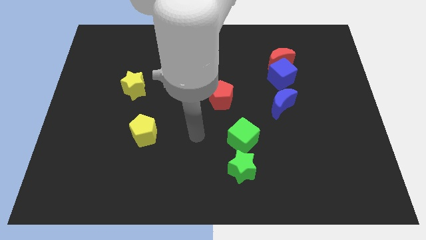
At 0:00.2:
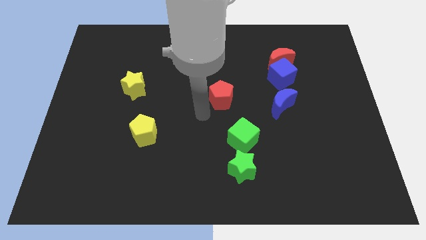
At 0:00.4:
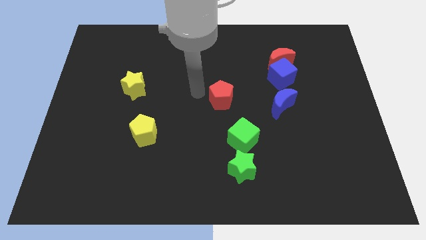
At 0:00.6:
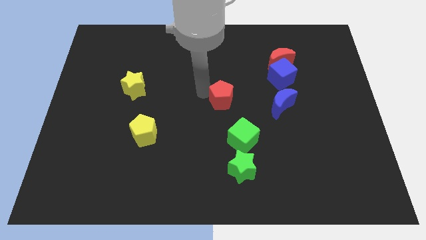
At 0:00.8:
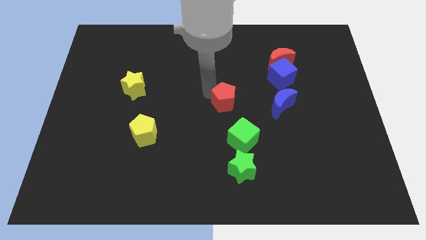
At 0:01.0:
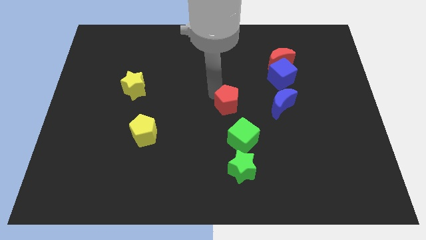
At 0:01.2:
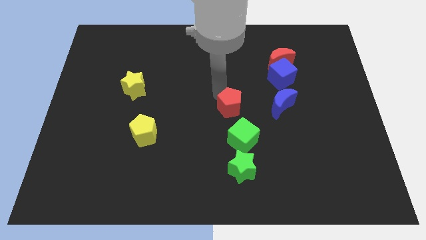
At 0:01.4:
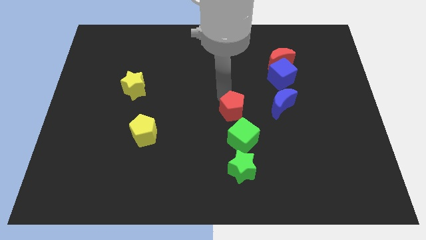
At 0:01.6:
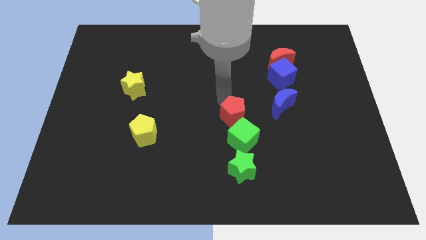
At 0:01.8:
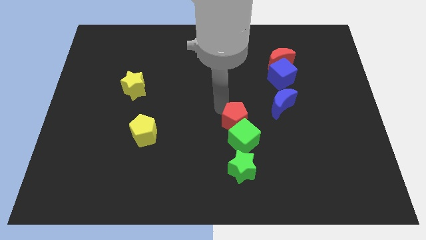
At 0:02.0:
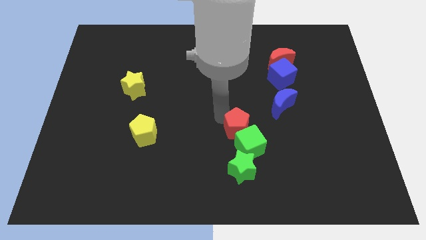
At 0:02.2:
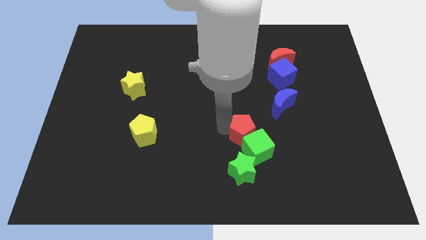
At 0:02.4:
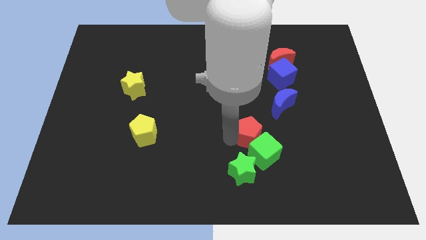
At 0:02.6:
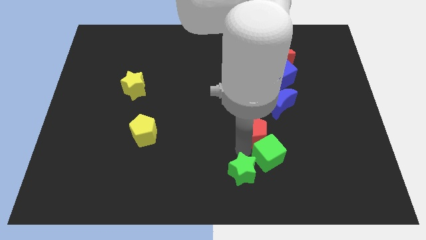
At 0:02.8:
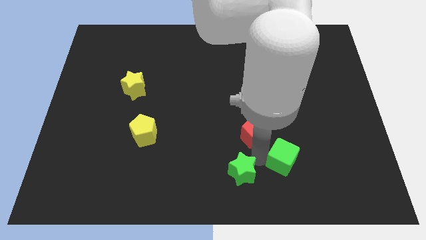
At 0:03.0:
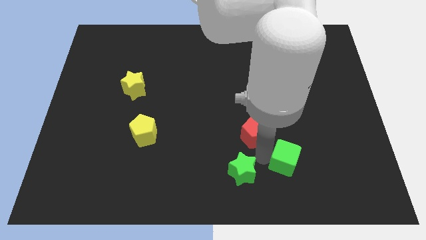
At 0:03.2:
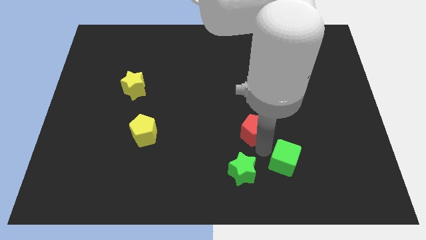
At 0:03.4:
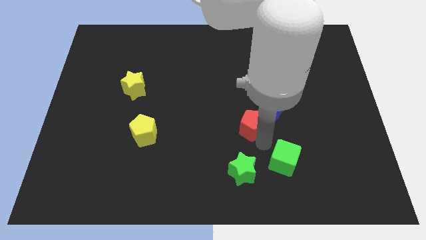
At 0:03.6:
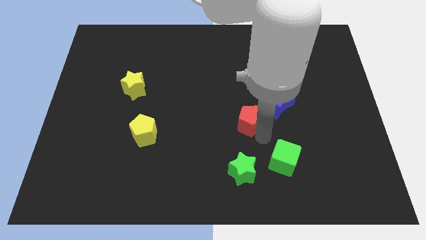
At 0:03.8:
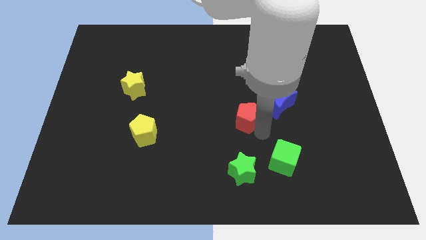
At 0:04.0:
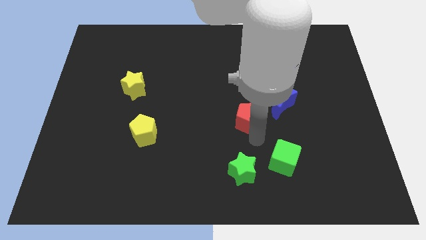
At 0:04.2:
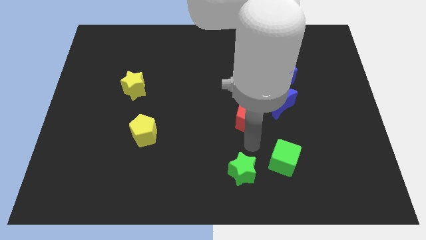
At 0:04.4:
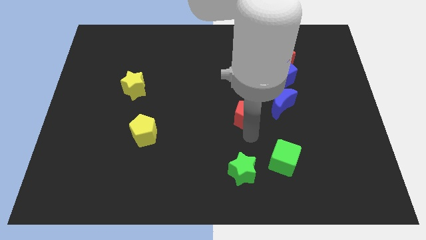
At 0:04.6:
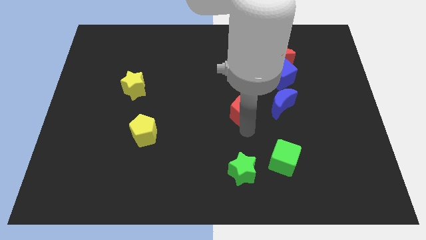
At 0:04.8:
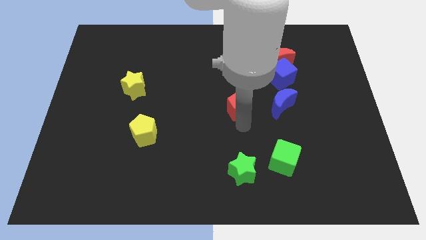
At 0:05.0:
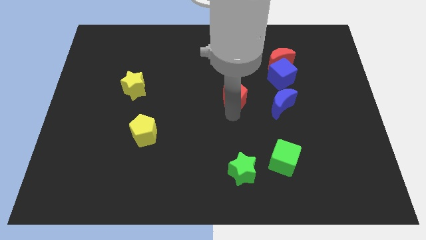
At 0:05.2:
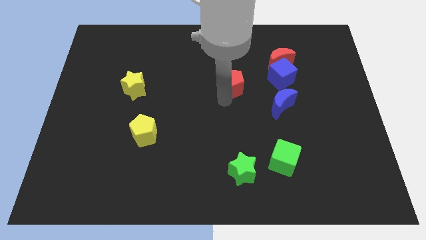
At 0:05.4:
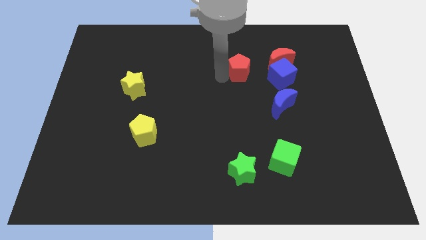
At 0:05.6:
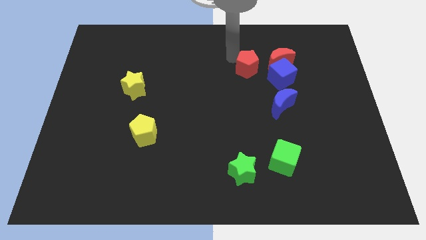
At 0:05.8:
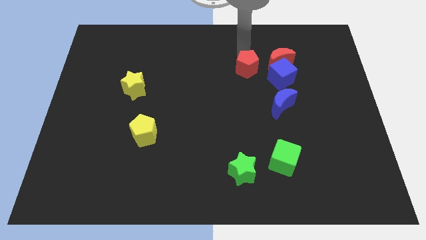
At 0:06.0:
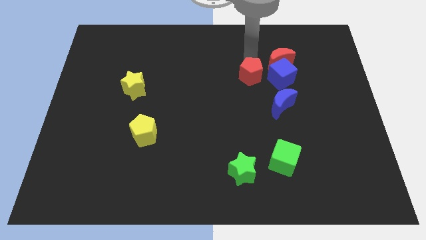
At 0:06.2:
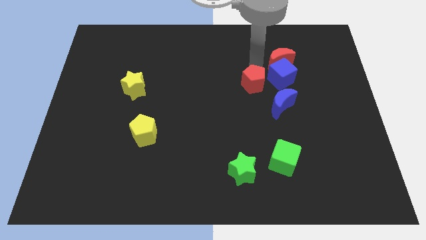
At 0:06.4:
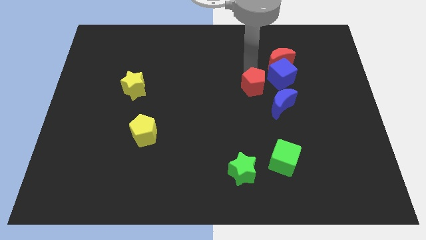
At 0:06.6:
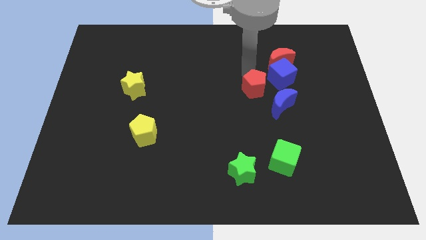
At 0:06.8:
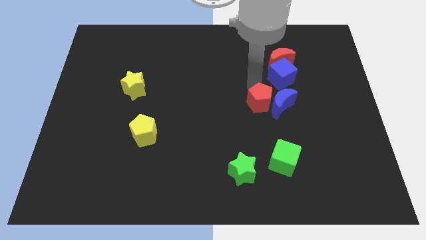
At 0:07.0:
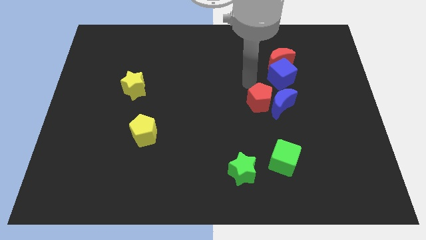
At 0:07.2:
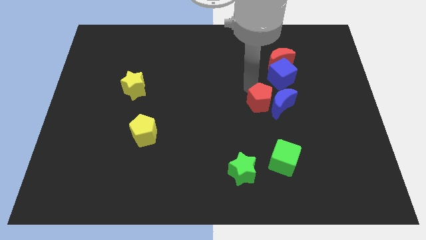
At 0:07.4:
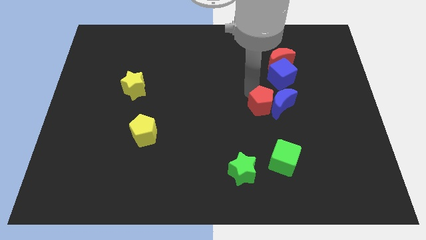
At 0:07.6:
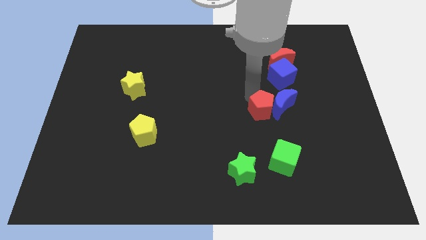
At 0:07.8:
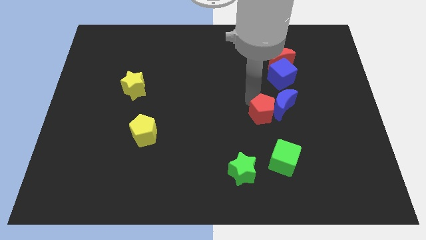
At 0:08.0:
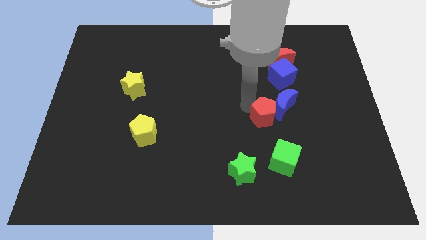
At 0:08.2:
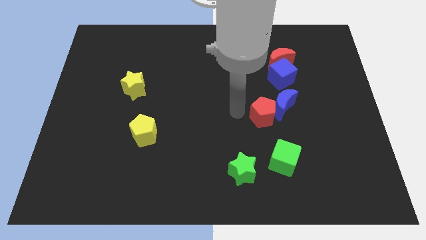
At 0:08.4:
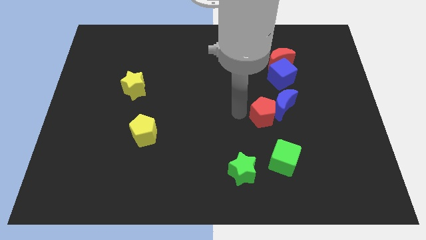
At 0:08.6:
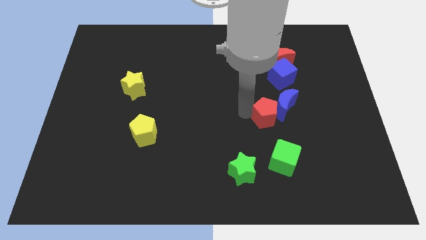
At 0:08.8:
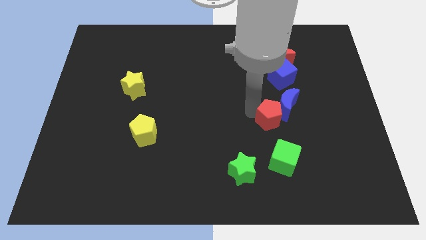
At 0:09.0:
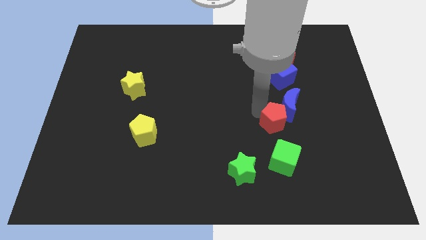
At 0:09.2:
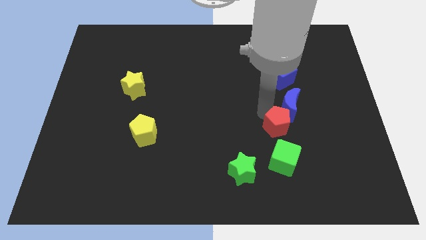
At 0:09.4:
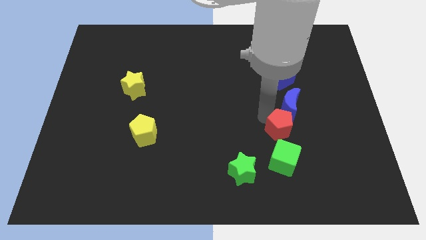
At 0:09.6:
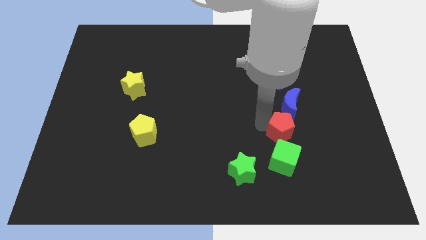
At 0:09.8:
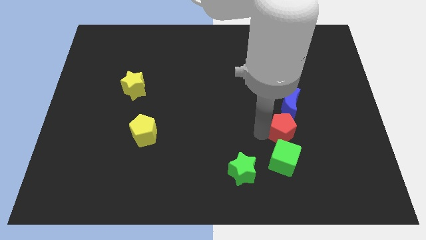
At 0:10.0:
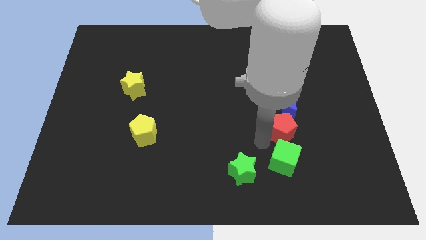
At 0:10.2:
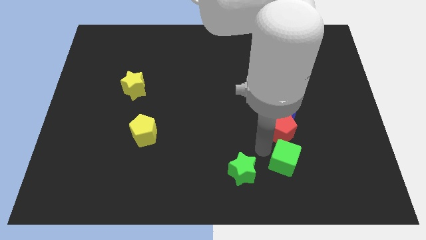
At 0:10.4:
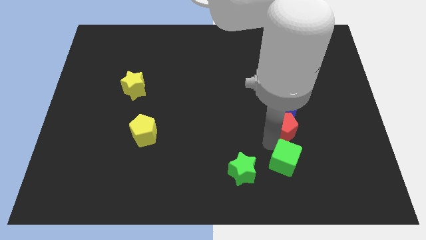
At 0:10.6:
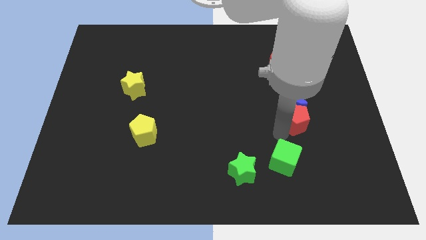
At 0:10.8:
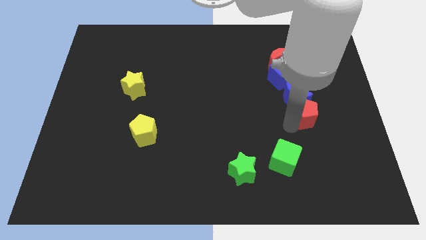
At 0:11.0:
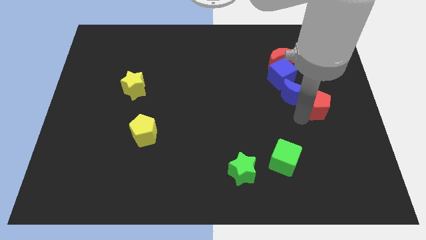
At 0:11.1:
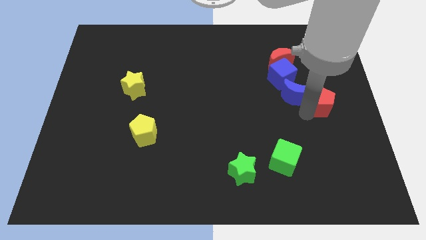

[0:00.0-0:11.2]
put the red pentagon to the right side
